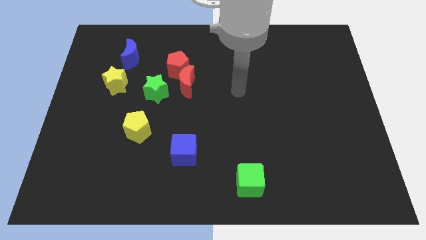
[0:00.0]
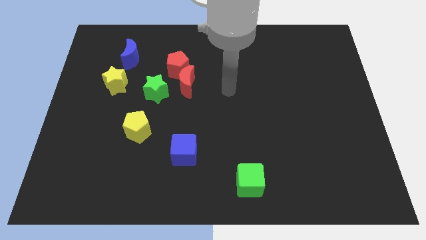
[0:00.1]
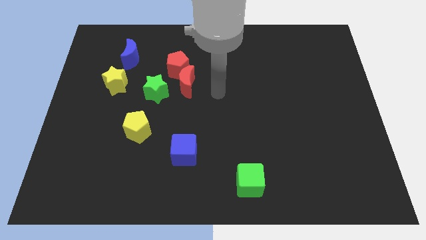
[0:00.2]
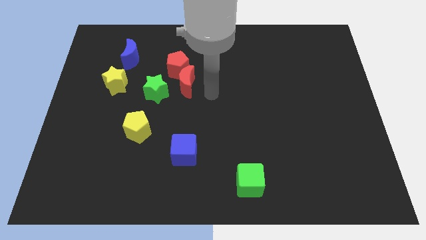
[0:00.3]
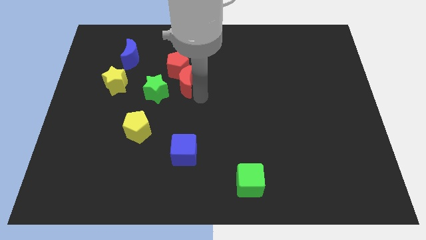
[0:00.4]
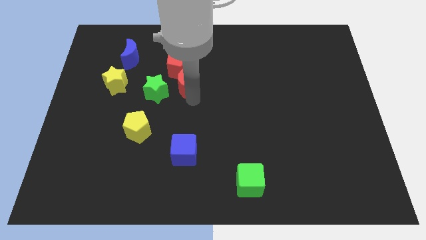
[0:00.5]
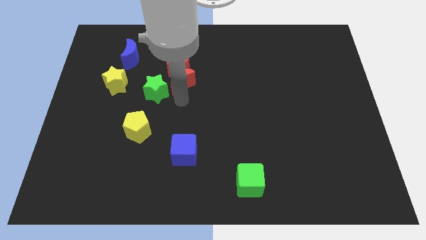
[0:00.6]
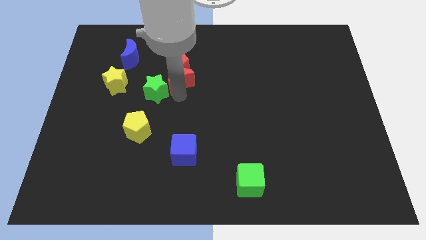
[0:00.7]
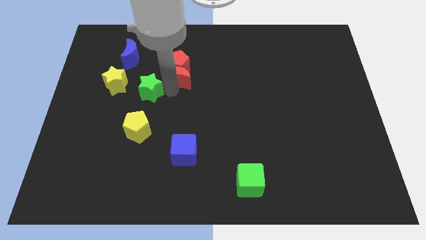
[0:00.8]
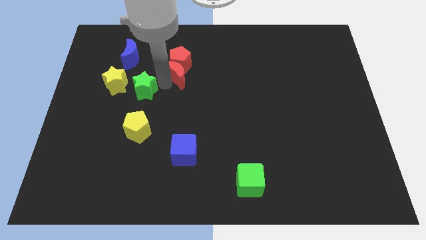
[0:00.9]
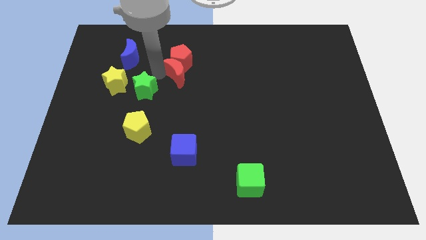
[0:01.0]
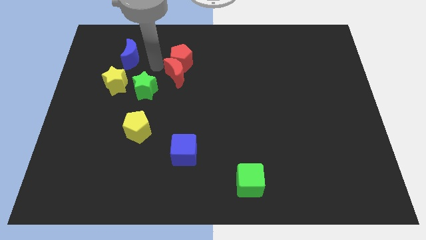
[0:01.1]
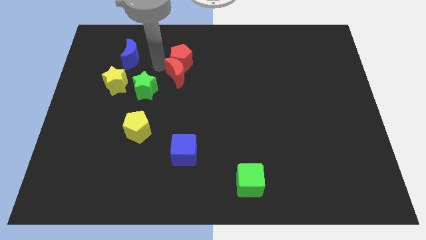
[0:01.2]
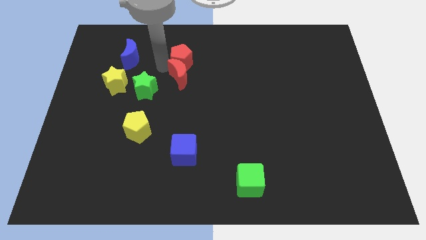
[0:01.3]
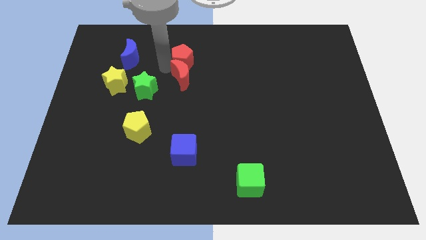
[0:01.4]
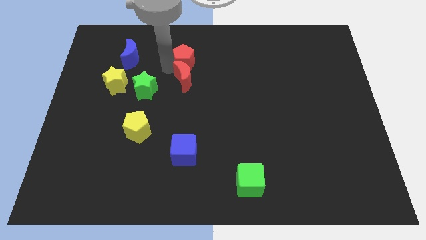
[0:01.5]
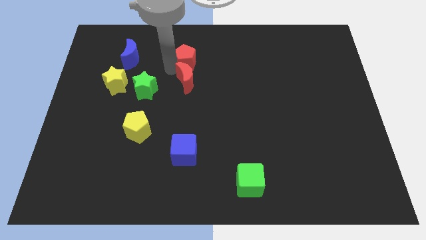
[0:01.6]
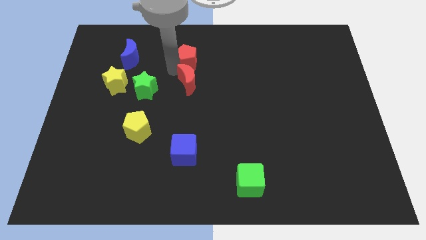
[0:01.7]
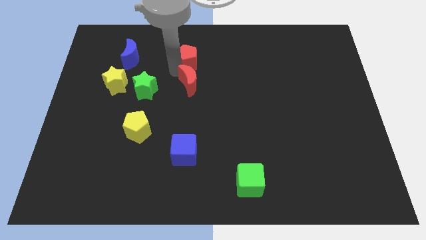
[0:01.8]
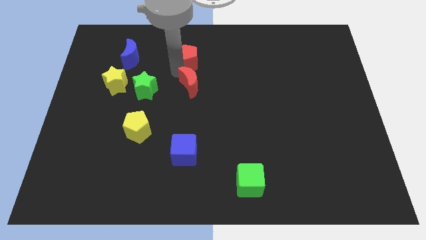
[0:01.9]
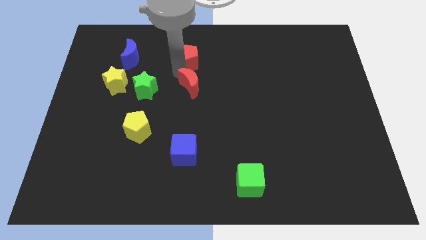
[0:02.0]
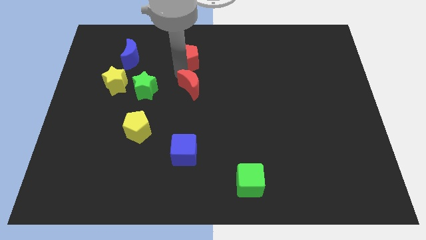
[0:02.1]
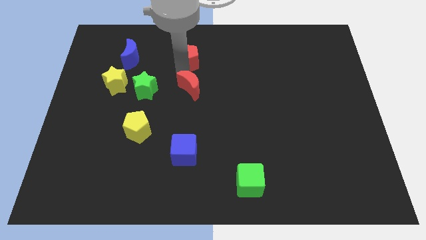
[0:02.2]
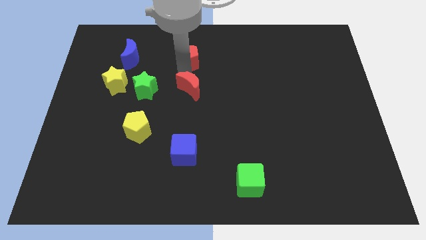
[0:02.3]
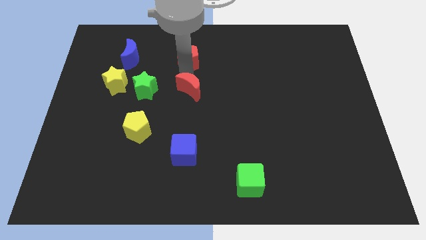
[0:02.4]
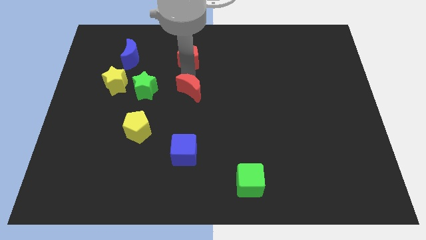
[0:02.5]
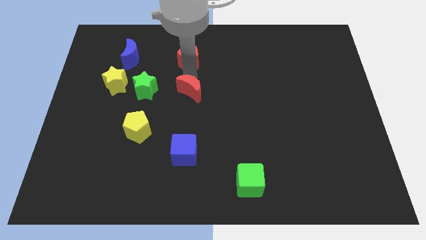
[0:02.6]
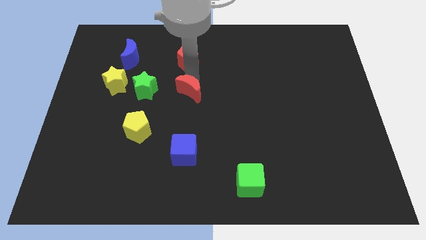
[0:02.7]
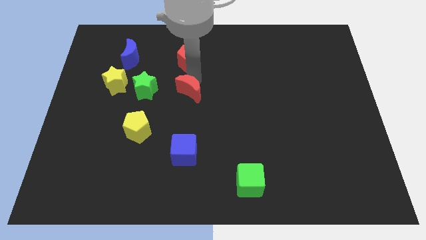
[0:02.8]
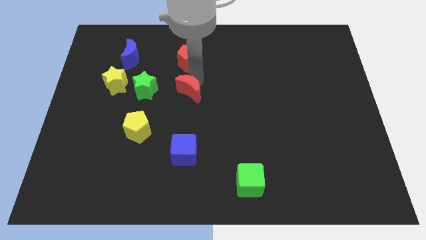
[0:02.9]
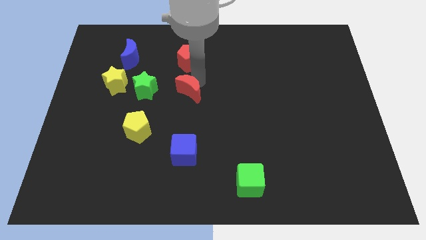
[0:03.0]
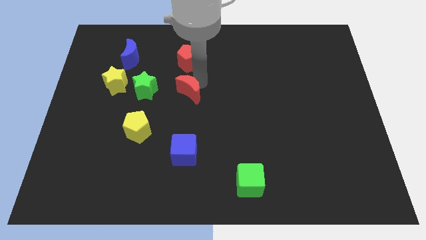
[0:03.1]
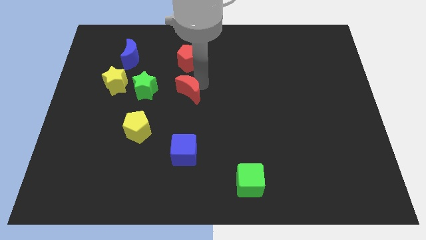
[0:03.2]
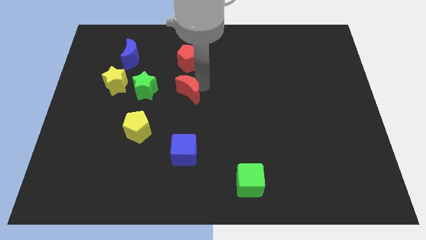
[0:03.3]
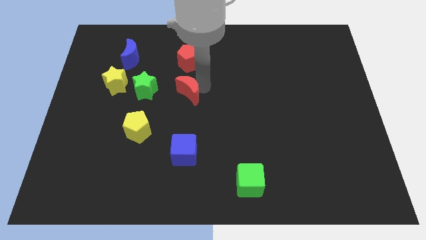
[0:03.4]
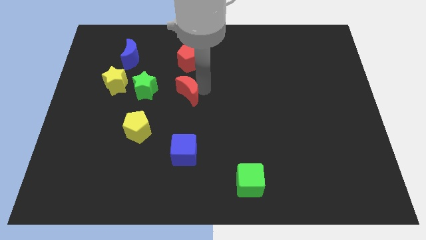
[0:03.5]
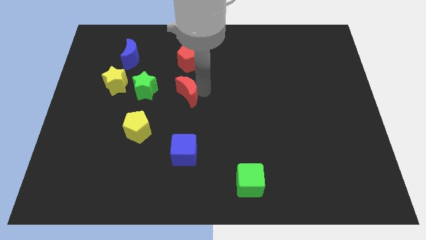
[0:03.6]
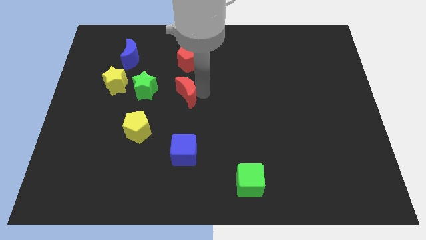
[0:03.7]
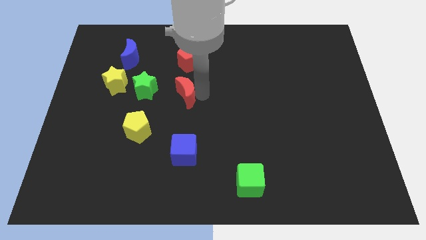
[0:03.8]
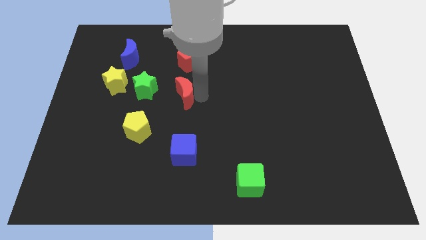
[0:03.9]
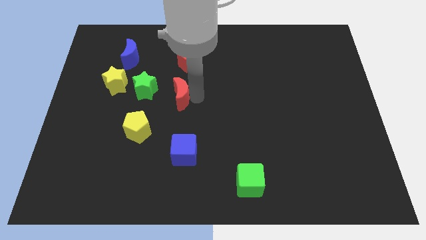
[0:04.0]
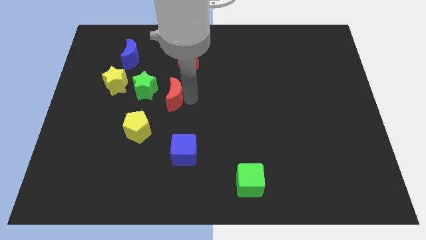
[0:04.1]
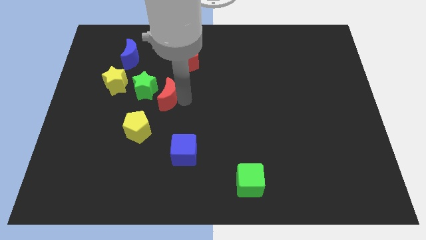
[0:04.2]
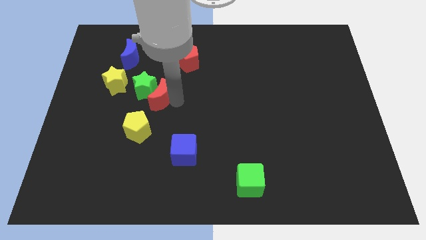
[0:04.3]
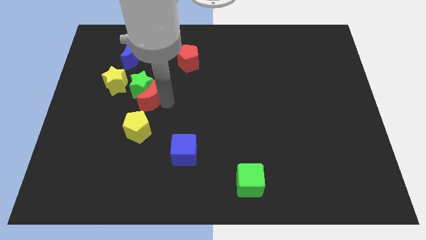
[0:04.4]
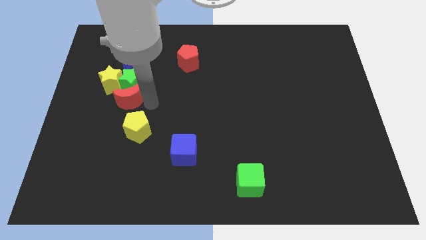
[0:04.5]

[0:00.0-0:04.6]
pull the red moon apart from the red pentagon and green star

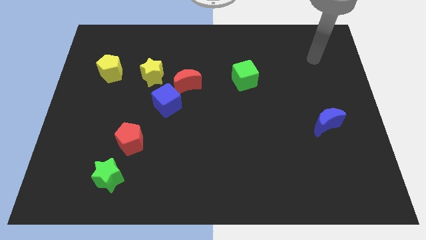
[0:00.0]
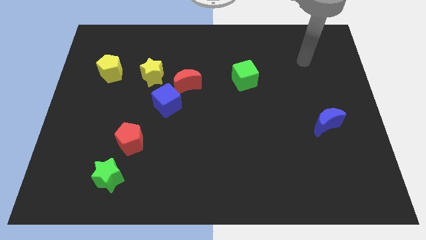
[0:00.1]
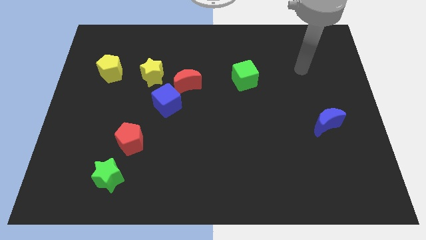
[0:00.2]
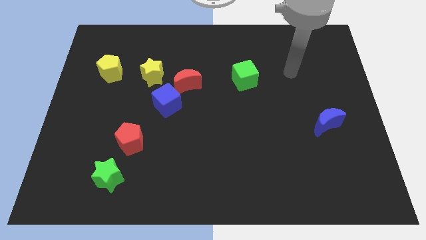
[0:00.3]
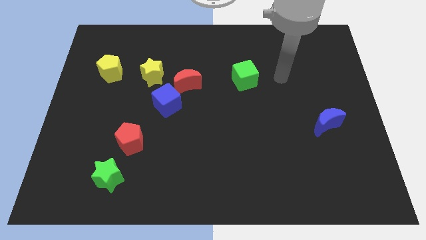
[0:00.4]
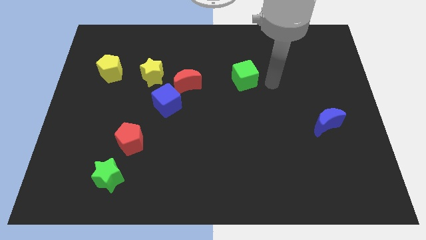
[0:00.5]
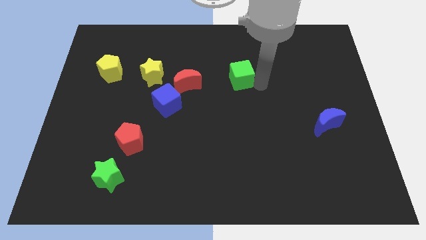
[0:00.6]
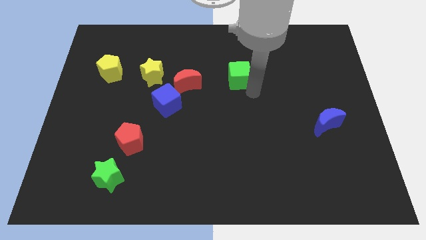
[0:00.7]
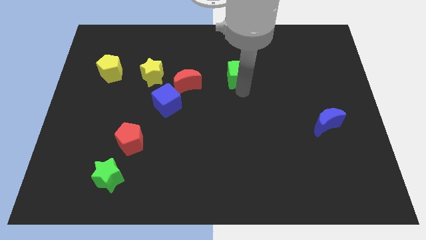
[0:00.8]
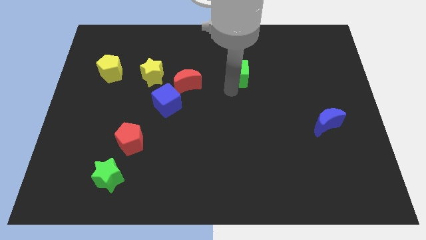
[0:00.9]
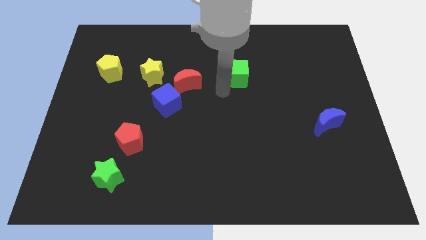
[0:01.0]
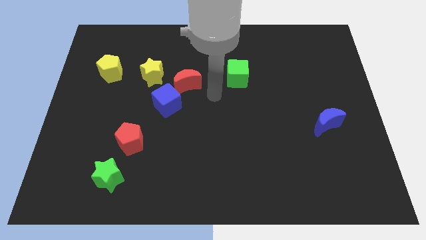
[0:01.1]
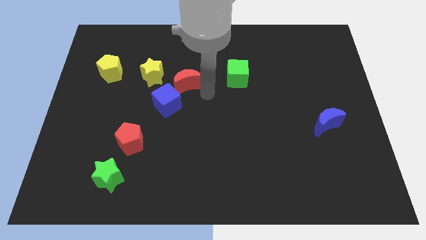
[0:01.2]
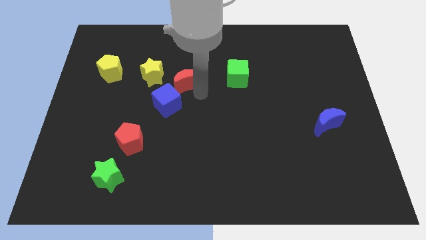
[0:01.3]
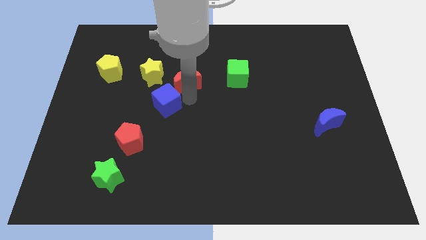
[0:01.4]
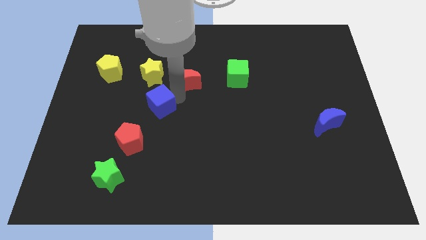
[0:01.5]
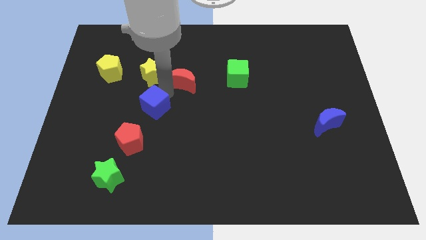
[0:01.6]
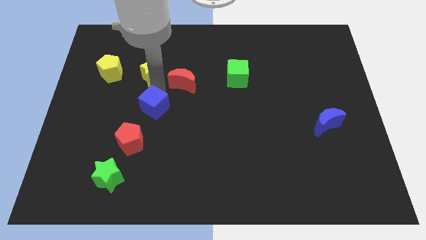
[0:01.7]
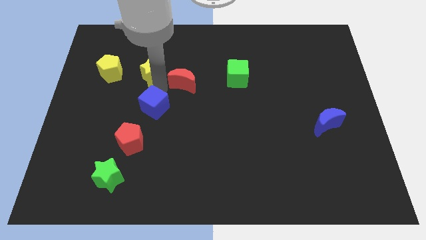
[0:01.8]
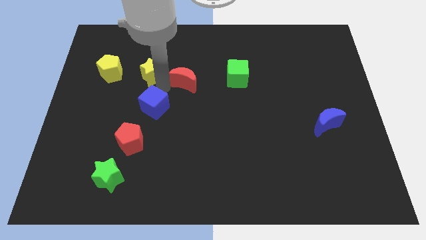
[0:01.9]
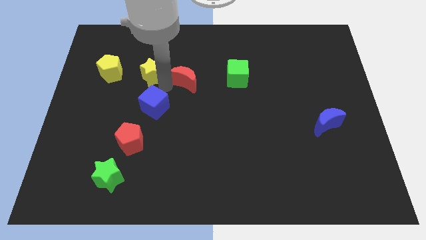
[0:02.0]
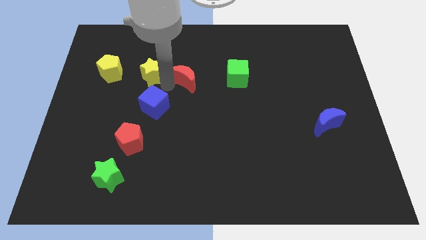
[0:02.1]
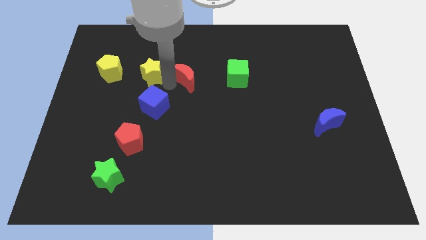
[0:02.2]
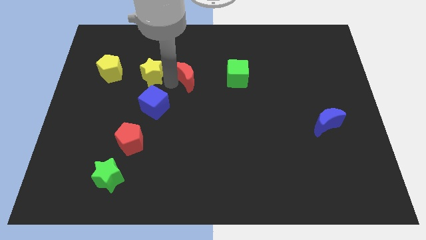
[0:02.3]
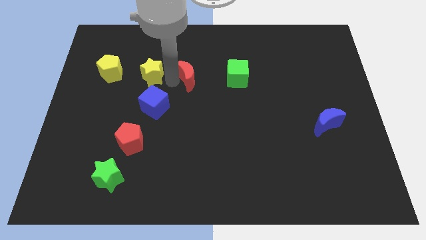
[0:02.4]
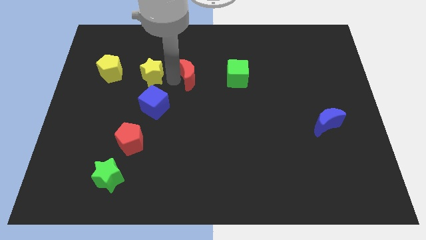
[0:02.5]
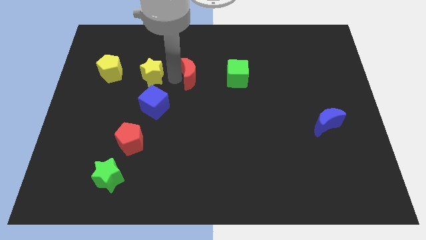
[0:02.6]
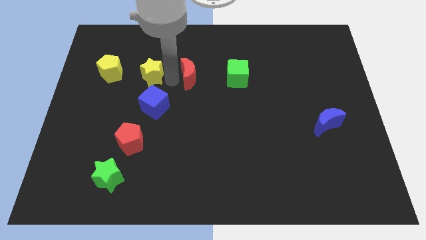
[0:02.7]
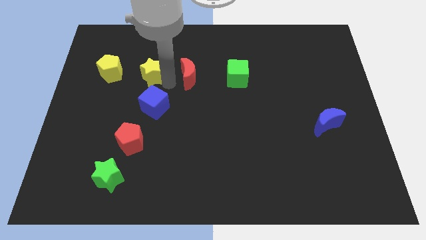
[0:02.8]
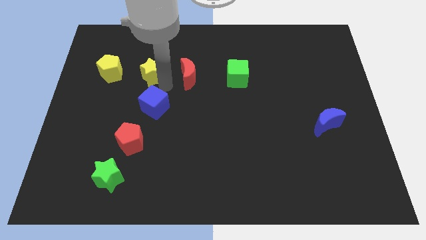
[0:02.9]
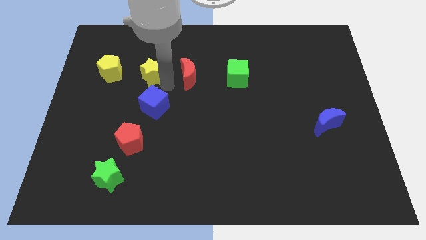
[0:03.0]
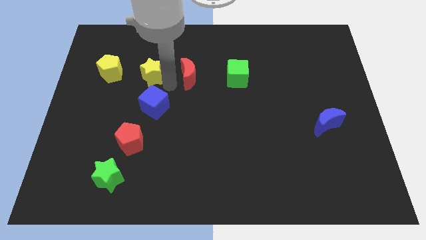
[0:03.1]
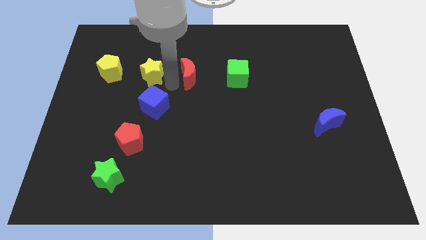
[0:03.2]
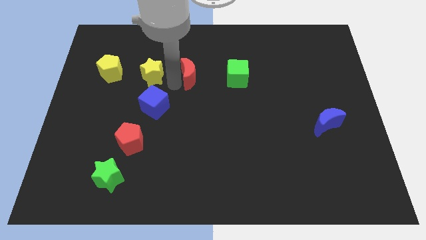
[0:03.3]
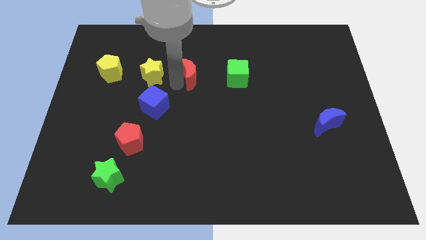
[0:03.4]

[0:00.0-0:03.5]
move the red moon away from the blue cube and yellow star

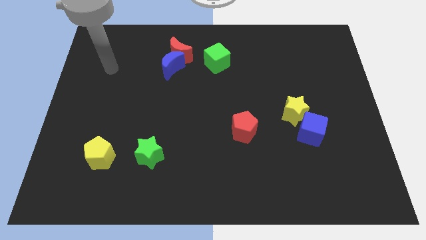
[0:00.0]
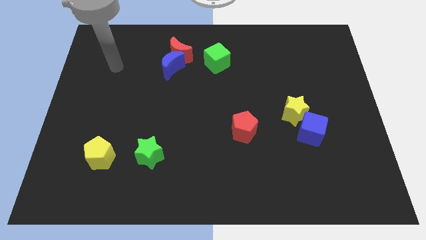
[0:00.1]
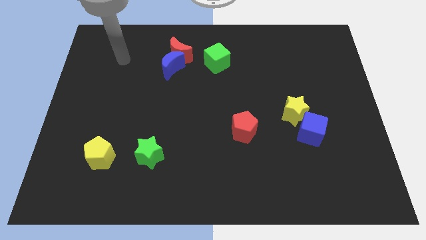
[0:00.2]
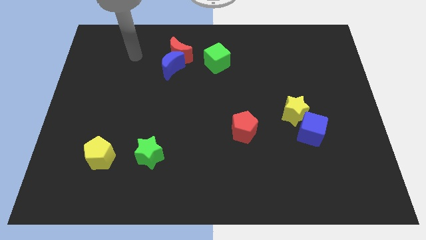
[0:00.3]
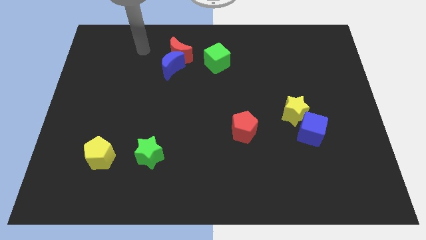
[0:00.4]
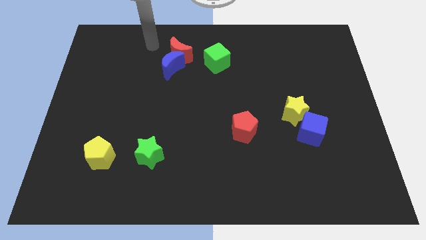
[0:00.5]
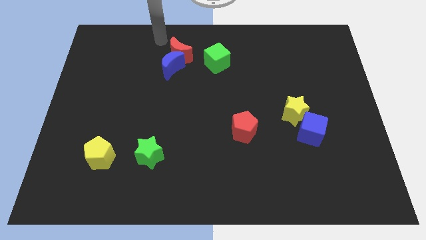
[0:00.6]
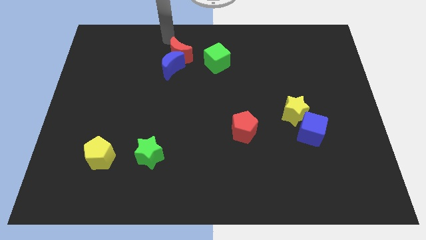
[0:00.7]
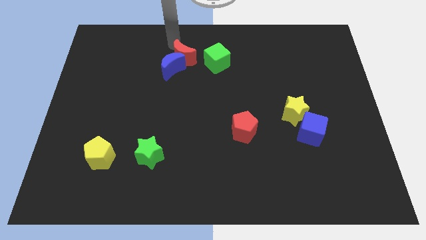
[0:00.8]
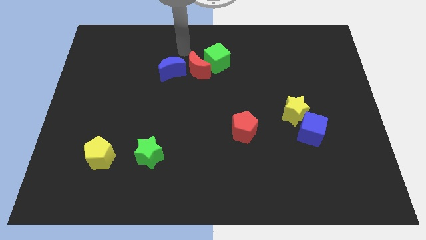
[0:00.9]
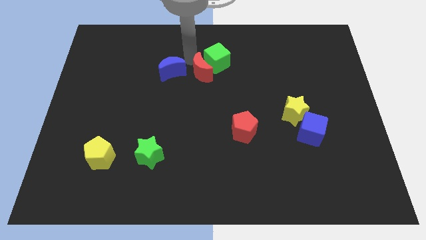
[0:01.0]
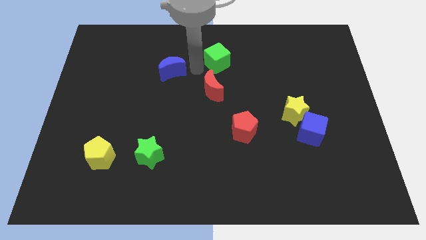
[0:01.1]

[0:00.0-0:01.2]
move the blue moon away from the red moon

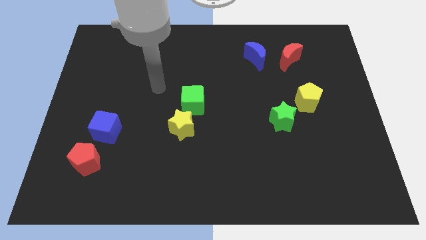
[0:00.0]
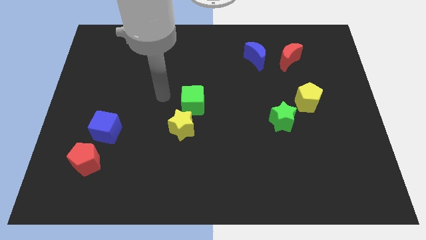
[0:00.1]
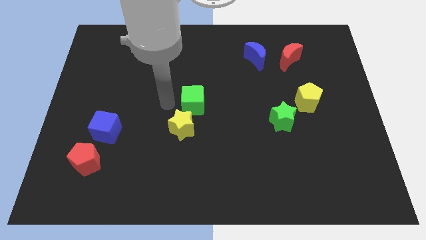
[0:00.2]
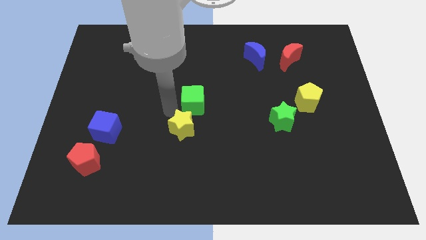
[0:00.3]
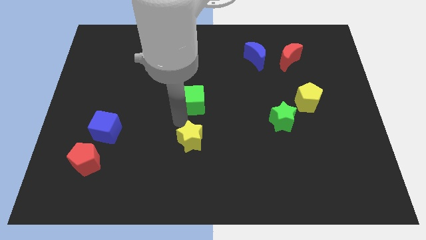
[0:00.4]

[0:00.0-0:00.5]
pull the green cube apart from the yellow star
